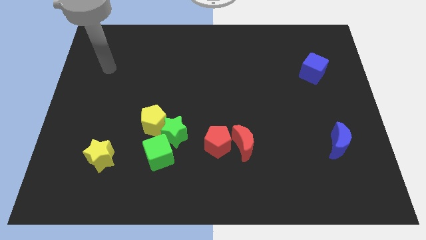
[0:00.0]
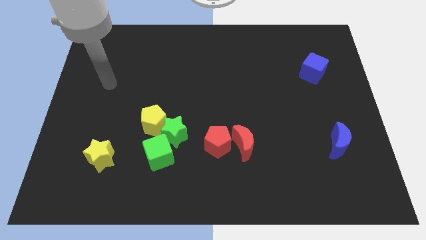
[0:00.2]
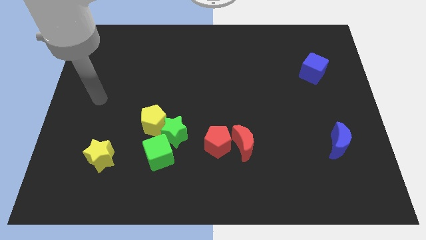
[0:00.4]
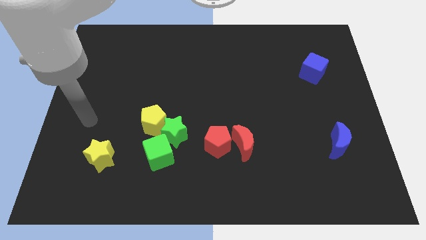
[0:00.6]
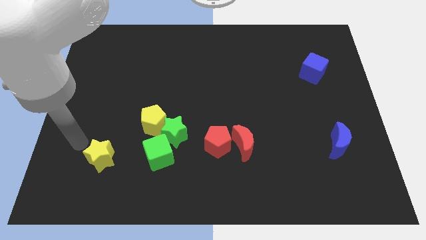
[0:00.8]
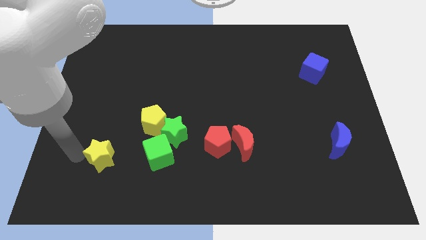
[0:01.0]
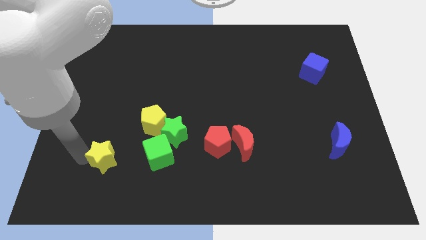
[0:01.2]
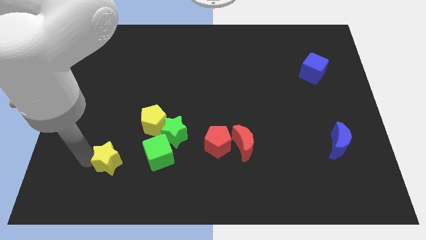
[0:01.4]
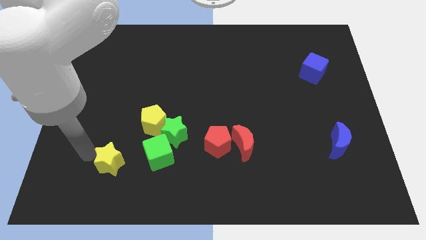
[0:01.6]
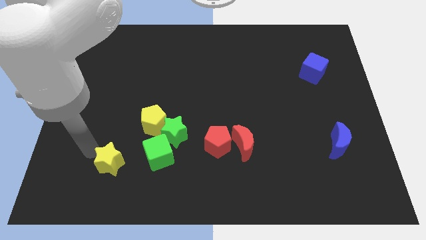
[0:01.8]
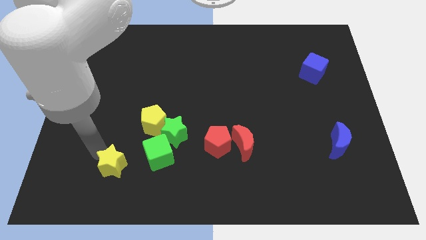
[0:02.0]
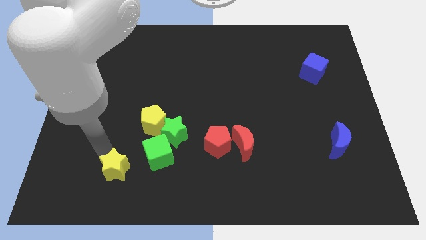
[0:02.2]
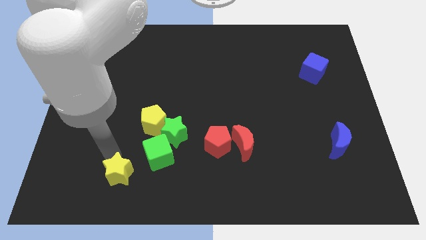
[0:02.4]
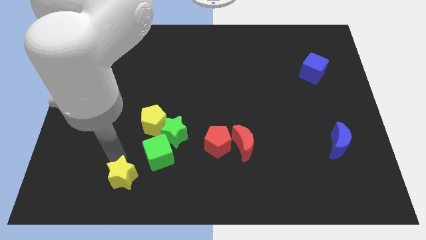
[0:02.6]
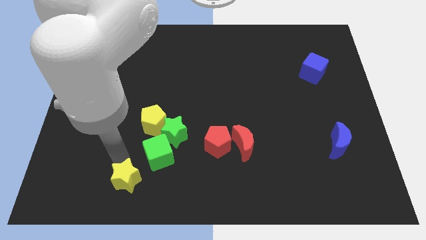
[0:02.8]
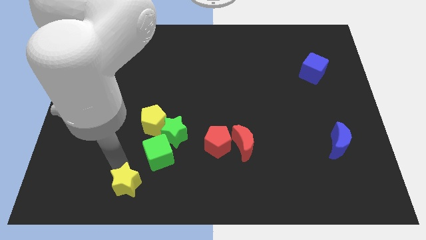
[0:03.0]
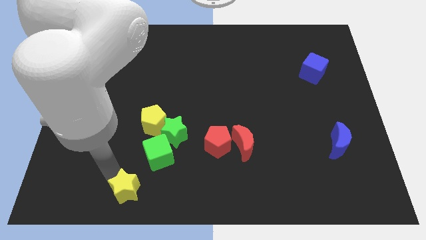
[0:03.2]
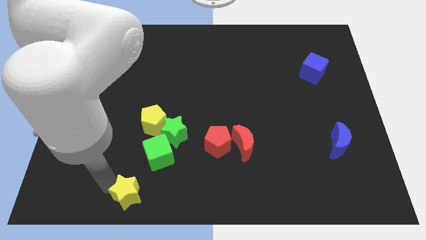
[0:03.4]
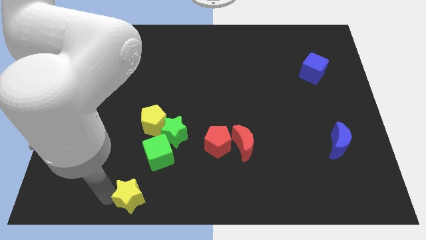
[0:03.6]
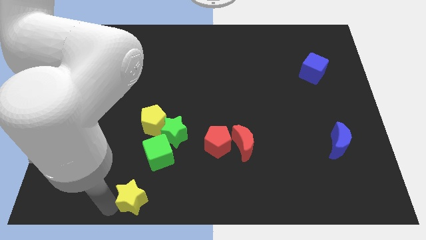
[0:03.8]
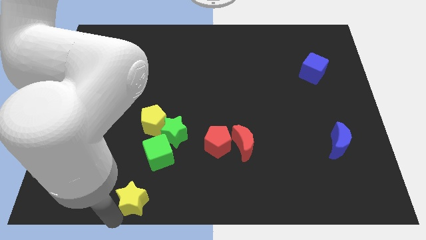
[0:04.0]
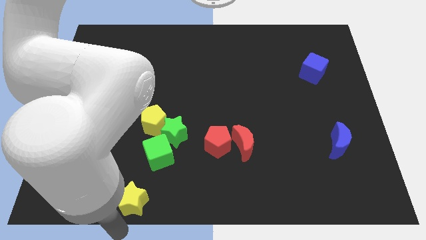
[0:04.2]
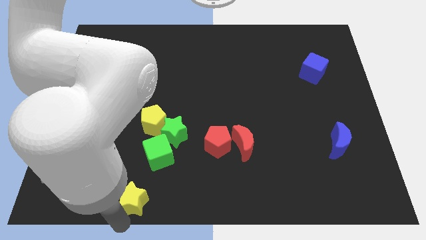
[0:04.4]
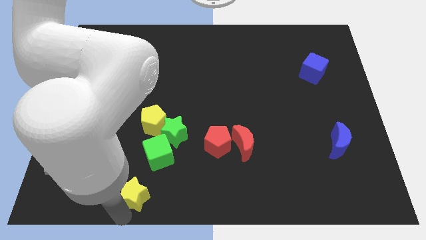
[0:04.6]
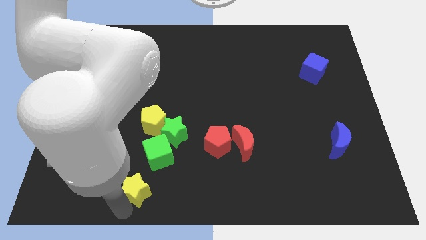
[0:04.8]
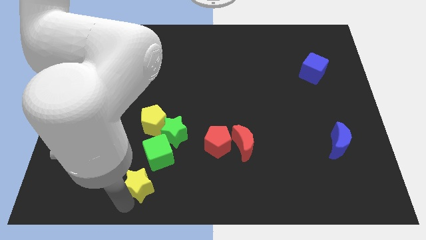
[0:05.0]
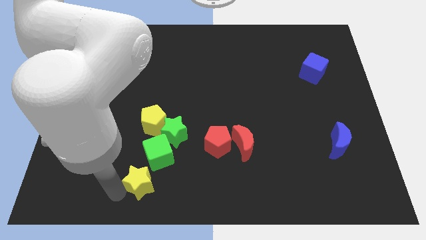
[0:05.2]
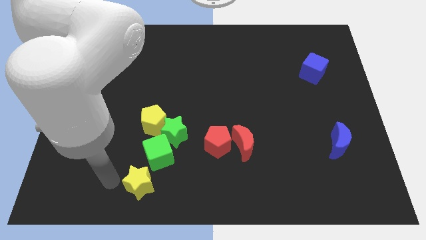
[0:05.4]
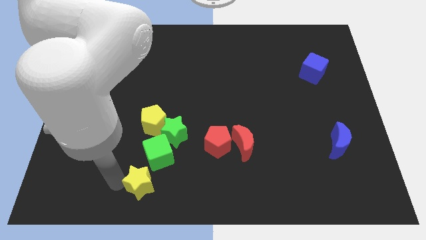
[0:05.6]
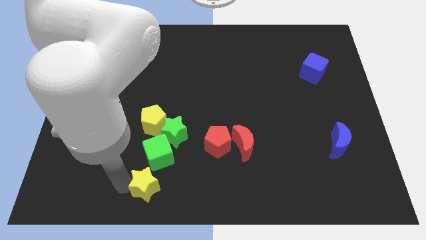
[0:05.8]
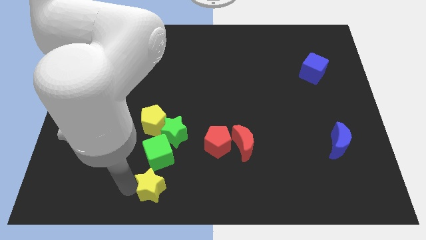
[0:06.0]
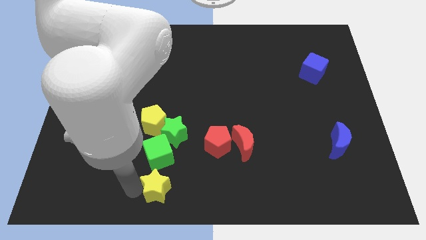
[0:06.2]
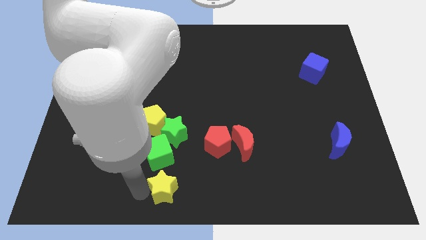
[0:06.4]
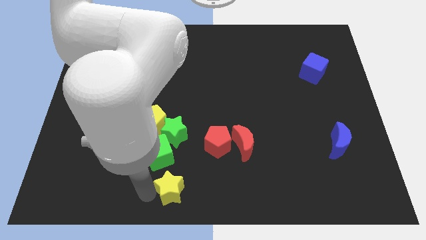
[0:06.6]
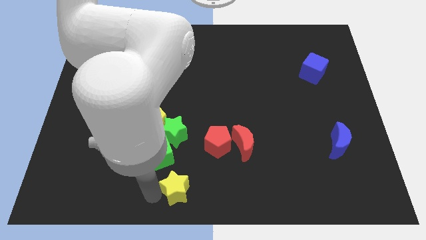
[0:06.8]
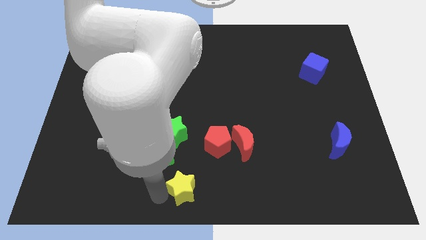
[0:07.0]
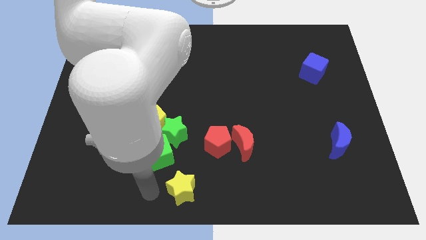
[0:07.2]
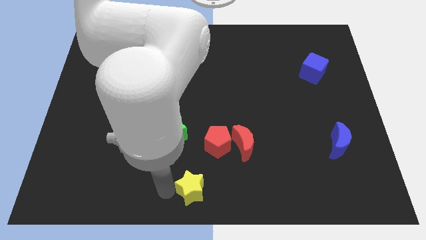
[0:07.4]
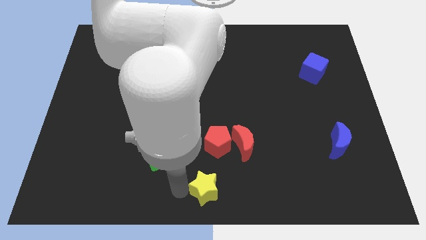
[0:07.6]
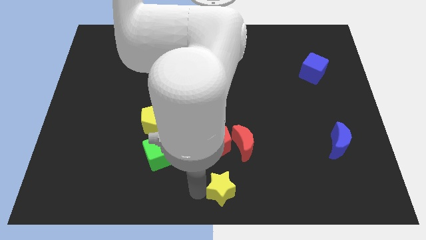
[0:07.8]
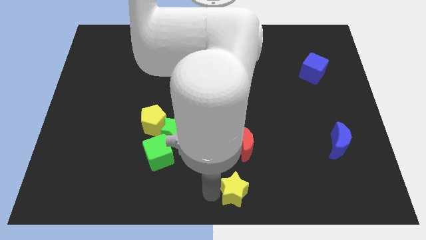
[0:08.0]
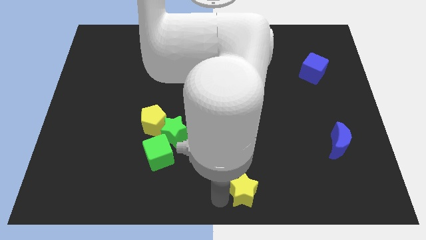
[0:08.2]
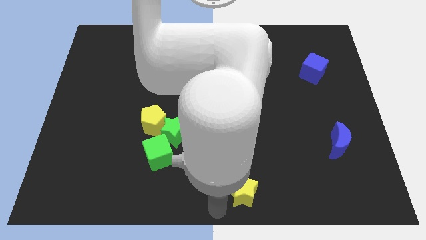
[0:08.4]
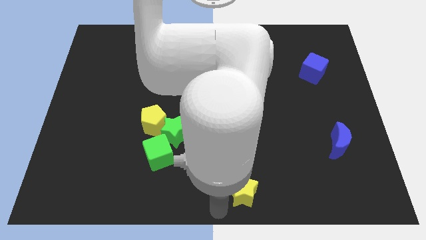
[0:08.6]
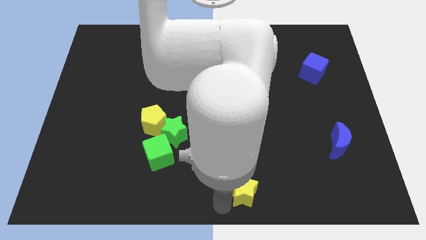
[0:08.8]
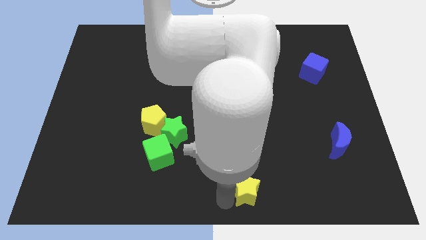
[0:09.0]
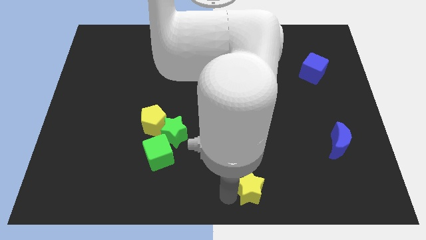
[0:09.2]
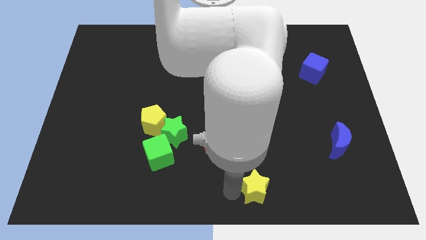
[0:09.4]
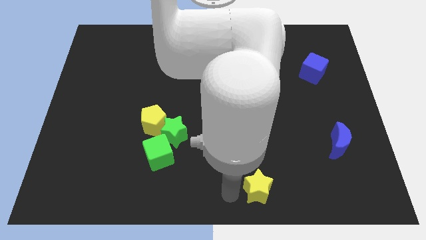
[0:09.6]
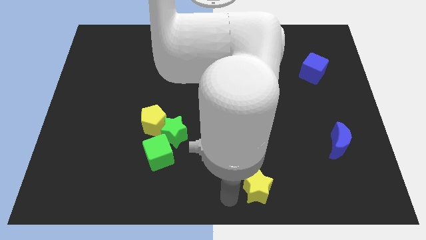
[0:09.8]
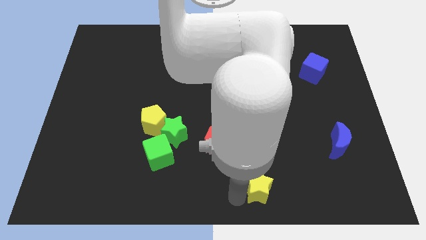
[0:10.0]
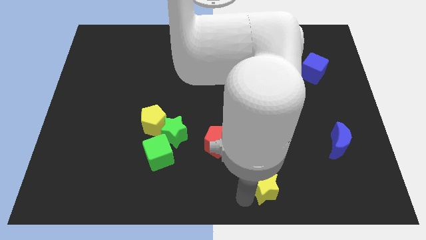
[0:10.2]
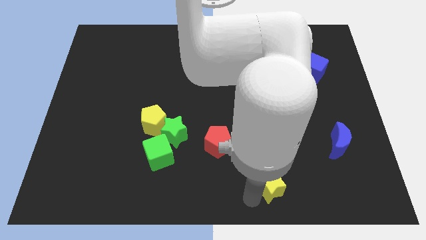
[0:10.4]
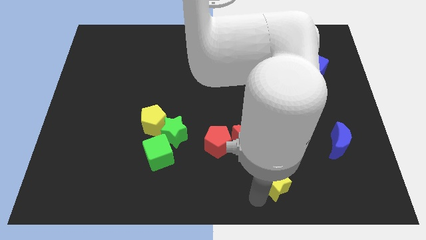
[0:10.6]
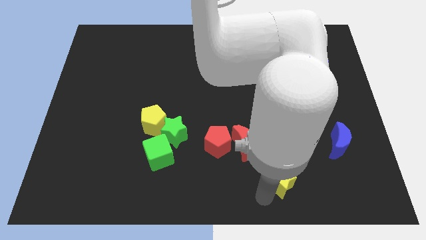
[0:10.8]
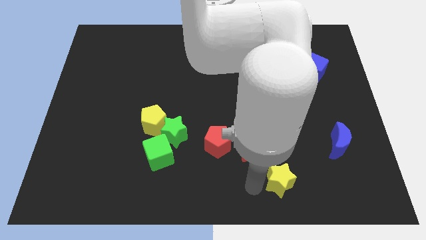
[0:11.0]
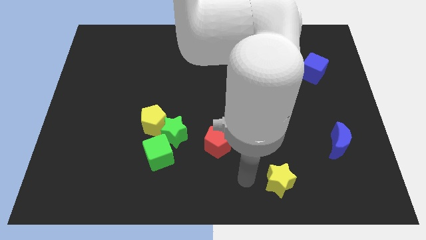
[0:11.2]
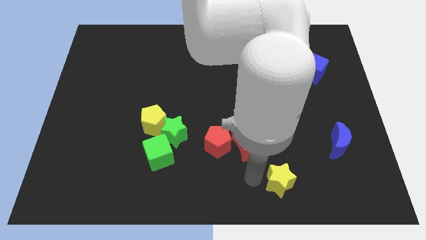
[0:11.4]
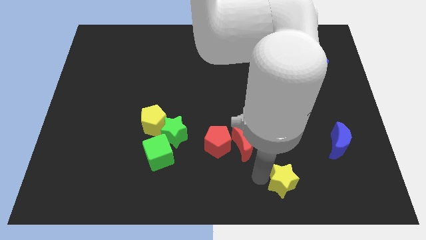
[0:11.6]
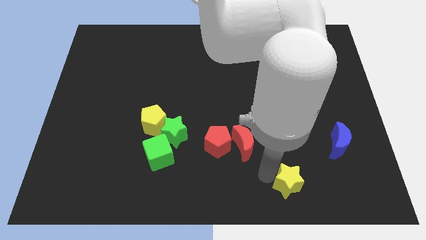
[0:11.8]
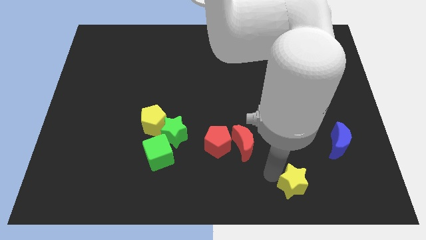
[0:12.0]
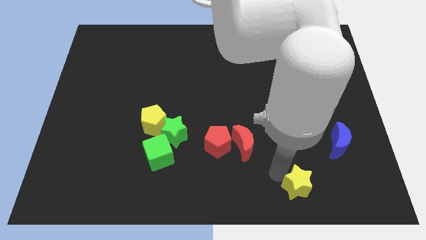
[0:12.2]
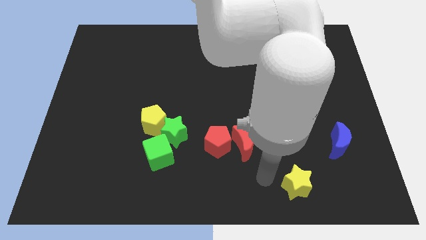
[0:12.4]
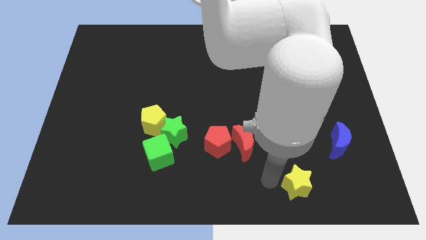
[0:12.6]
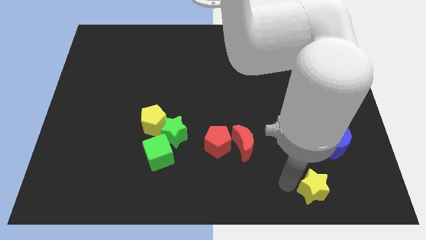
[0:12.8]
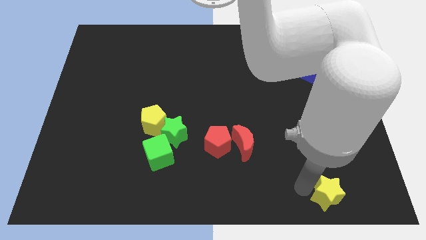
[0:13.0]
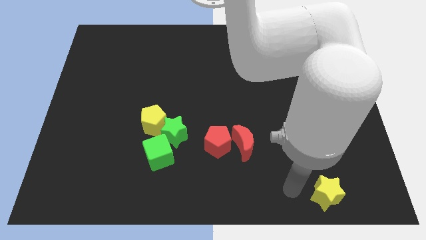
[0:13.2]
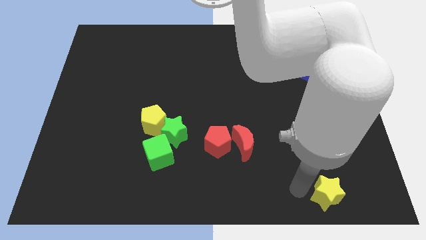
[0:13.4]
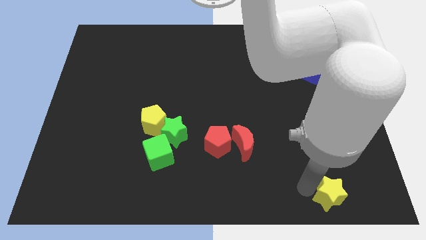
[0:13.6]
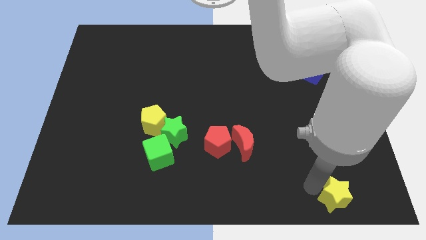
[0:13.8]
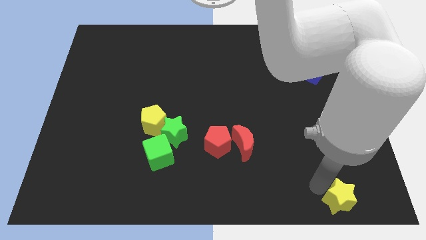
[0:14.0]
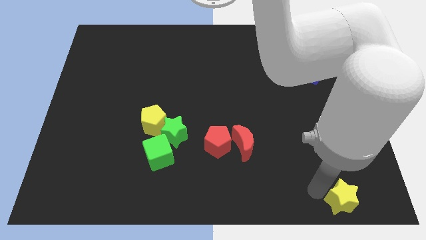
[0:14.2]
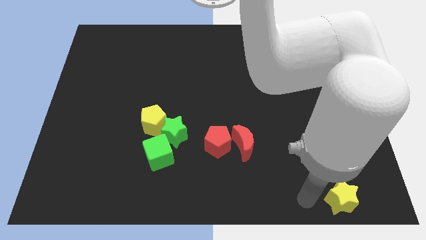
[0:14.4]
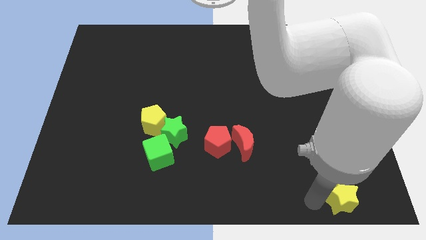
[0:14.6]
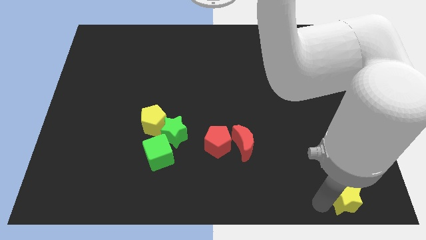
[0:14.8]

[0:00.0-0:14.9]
slide the yellow star to the bottom right
